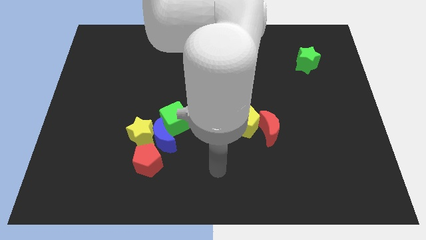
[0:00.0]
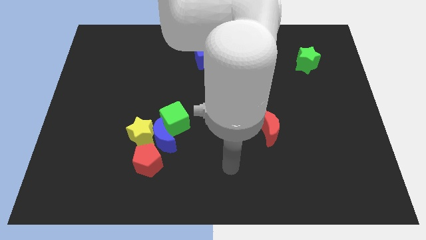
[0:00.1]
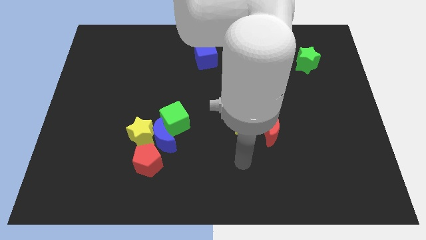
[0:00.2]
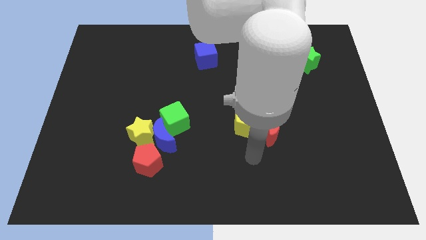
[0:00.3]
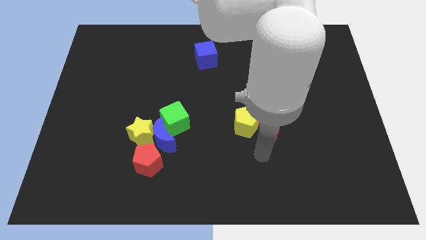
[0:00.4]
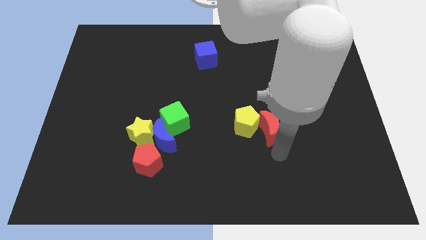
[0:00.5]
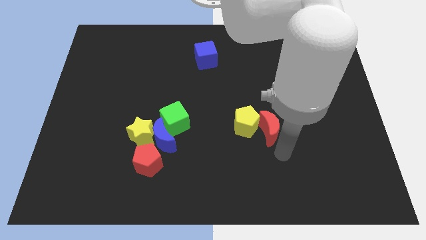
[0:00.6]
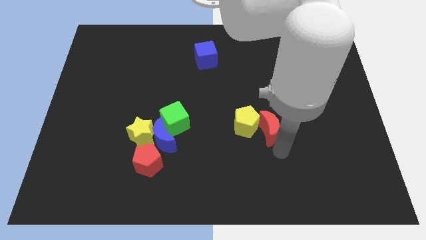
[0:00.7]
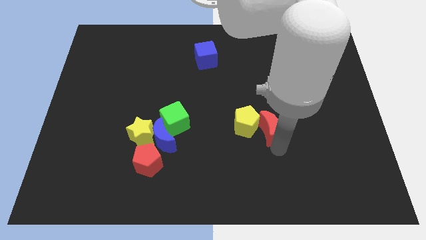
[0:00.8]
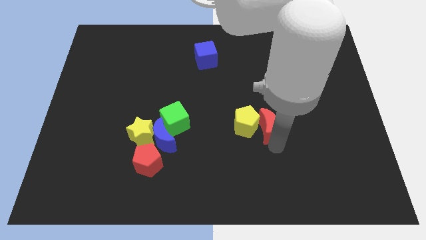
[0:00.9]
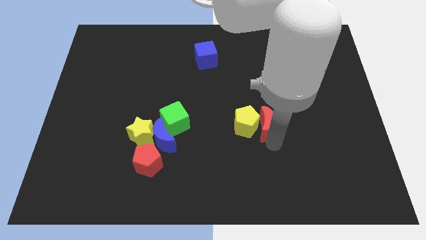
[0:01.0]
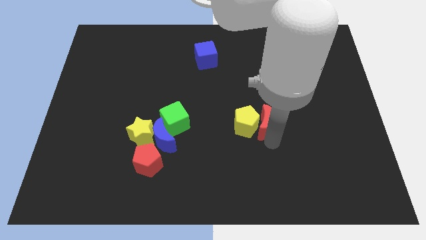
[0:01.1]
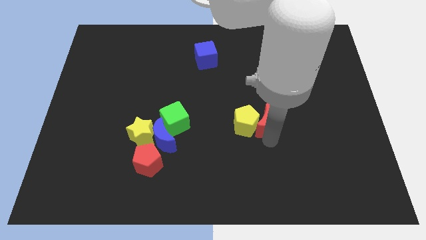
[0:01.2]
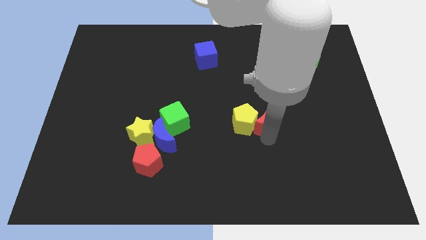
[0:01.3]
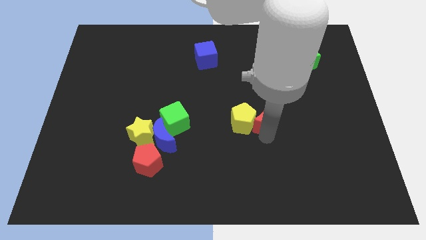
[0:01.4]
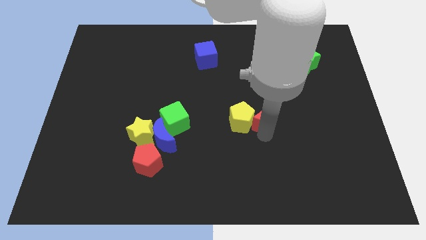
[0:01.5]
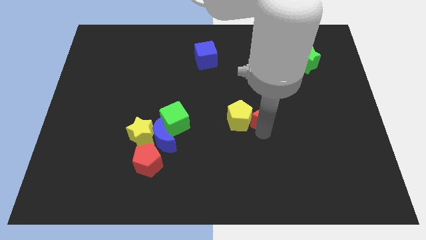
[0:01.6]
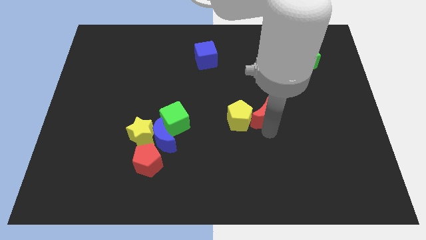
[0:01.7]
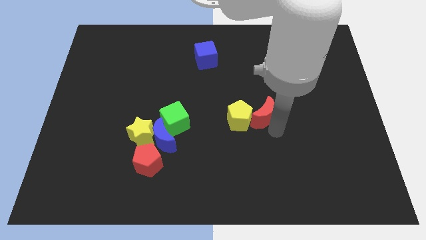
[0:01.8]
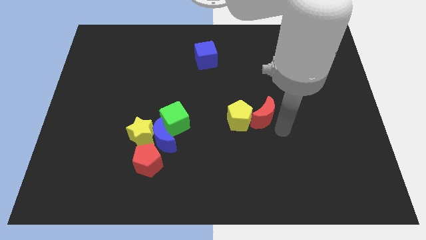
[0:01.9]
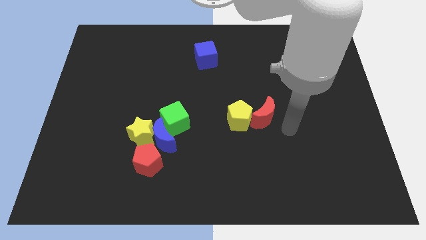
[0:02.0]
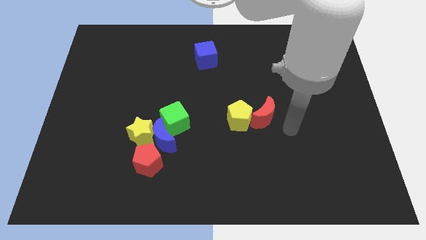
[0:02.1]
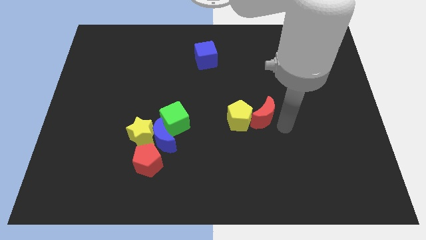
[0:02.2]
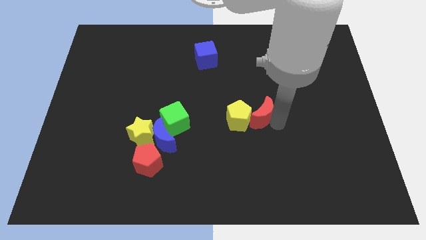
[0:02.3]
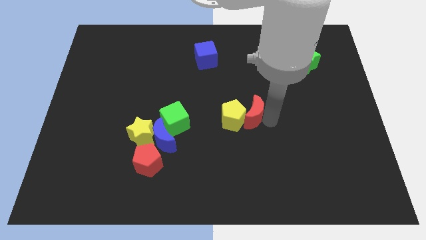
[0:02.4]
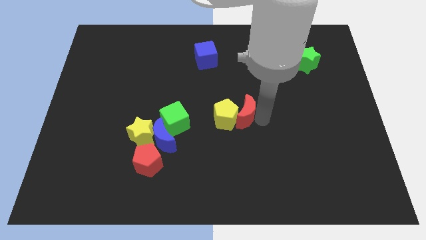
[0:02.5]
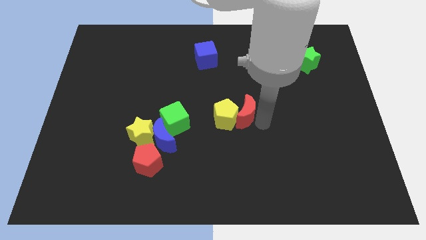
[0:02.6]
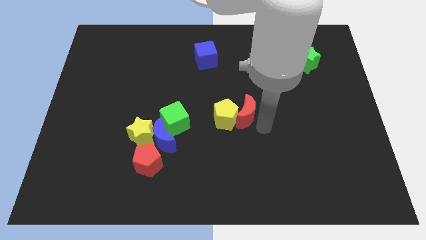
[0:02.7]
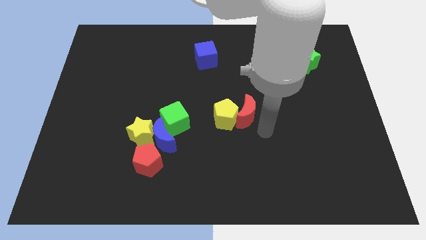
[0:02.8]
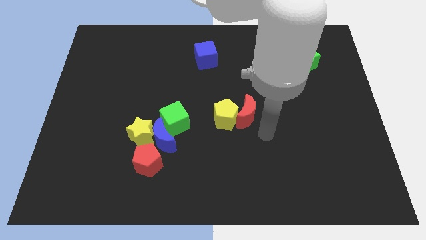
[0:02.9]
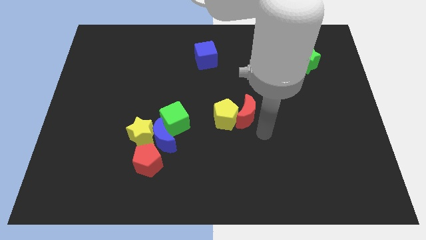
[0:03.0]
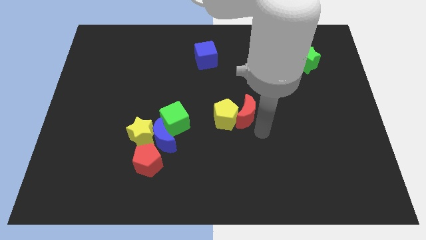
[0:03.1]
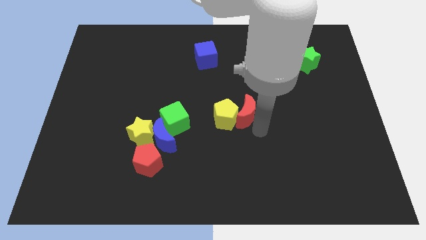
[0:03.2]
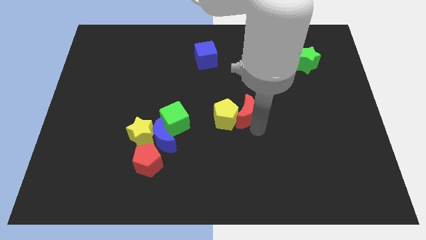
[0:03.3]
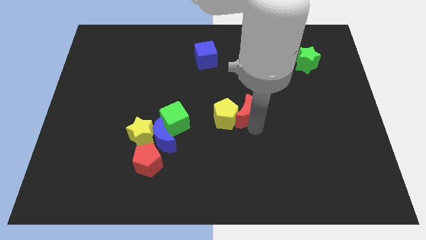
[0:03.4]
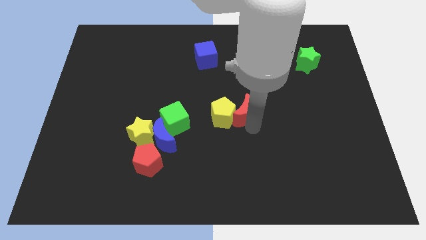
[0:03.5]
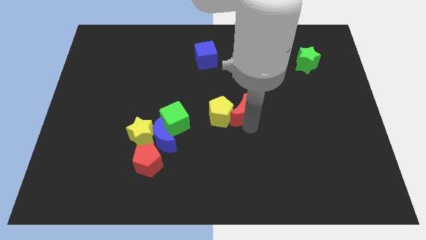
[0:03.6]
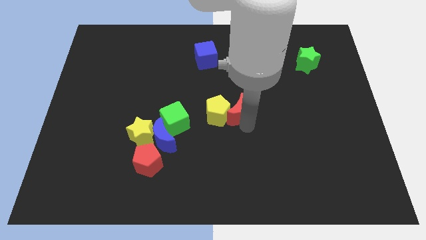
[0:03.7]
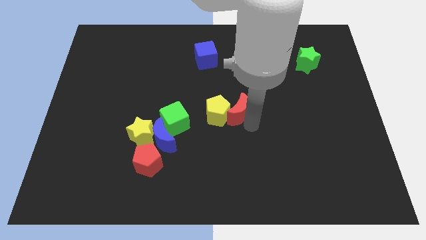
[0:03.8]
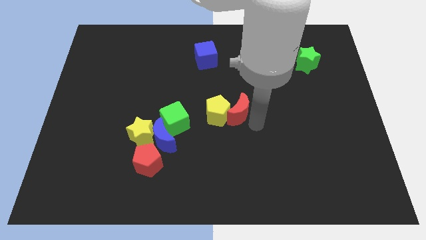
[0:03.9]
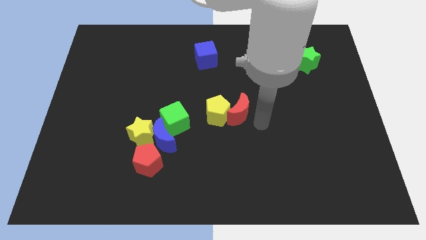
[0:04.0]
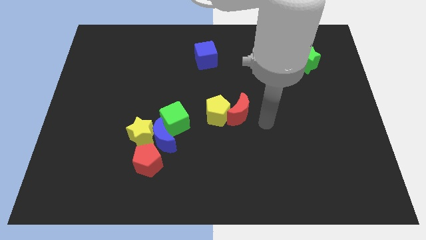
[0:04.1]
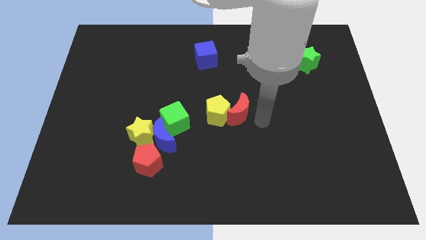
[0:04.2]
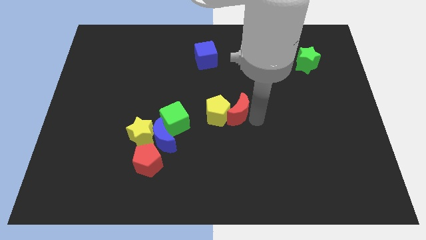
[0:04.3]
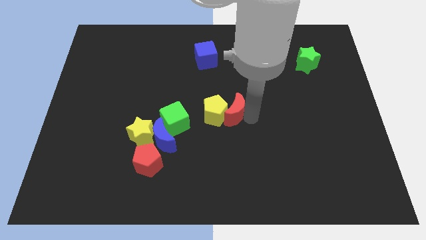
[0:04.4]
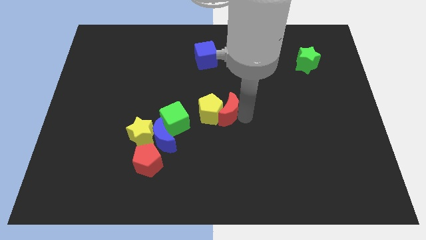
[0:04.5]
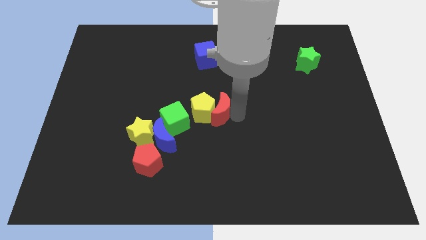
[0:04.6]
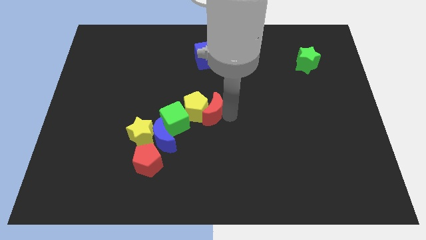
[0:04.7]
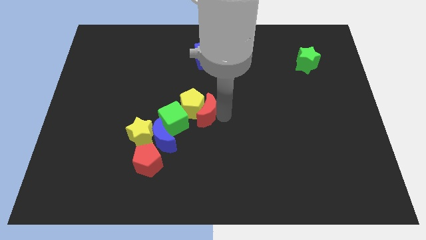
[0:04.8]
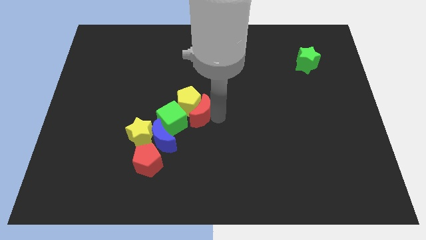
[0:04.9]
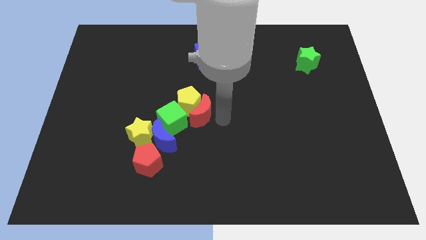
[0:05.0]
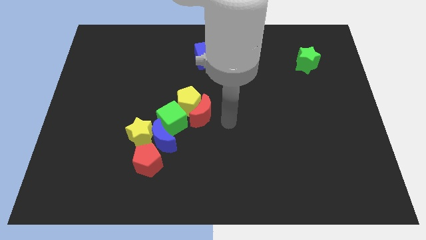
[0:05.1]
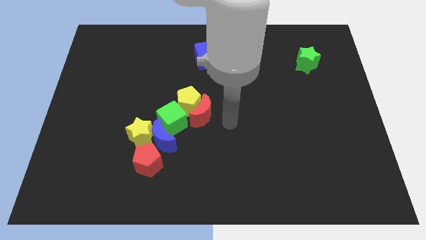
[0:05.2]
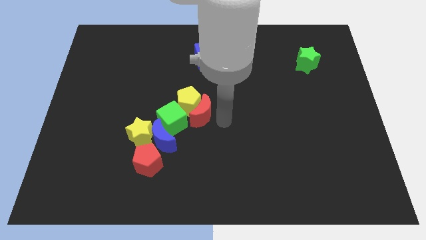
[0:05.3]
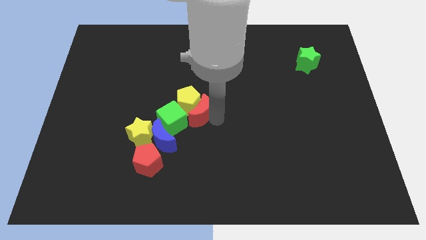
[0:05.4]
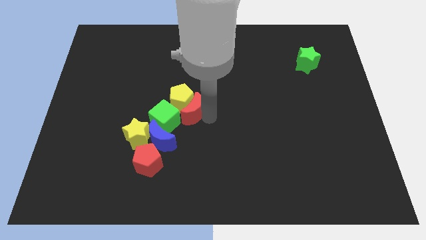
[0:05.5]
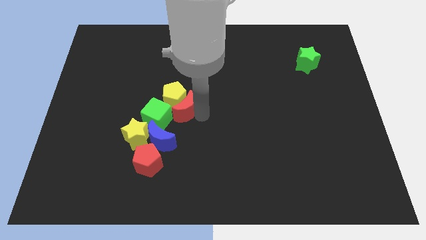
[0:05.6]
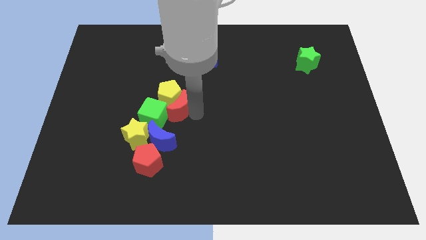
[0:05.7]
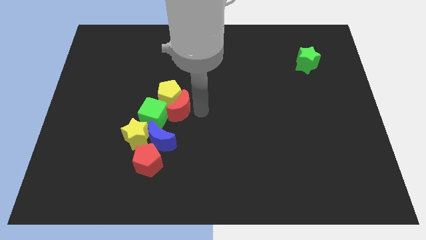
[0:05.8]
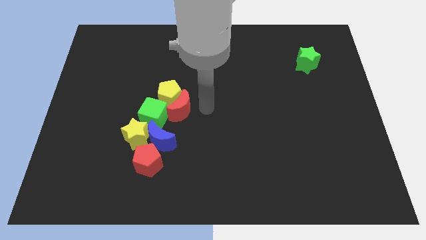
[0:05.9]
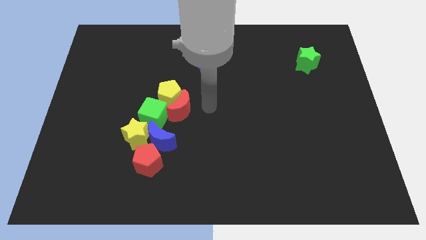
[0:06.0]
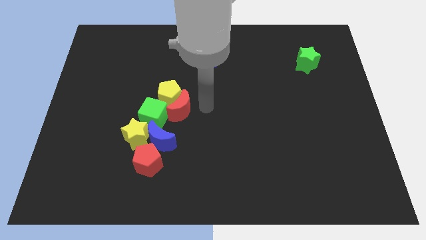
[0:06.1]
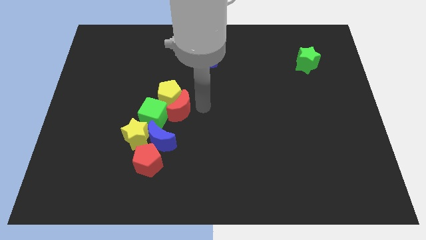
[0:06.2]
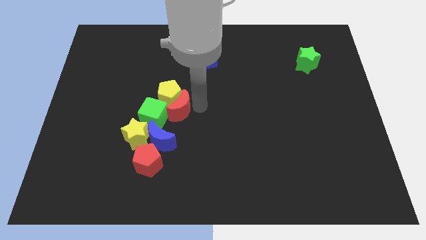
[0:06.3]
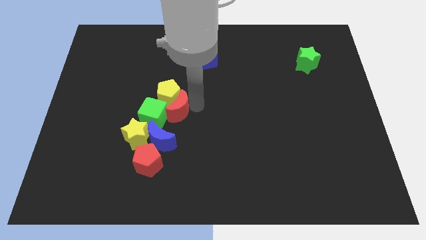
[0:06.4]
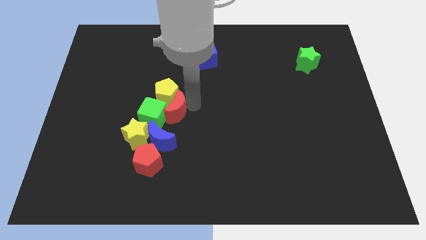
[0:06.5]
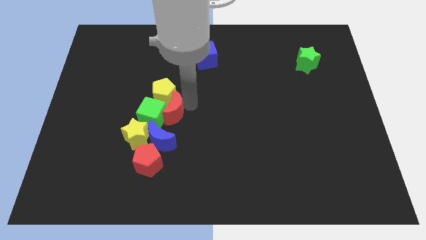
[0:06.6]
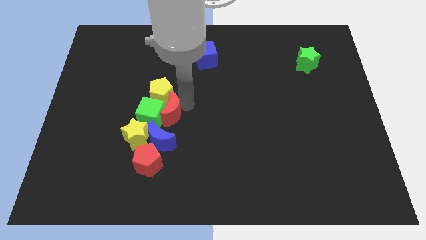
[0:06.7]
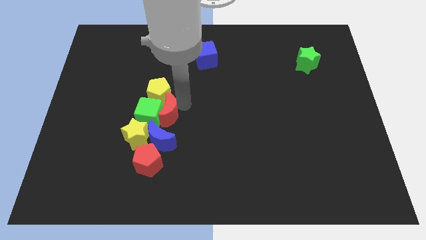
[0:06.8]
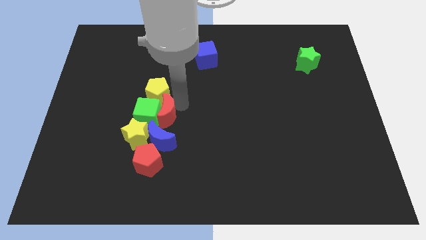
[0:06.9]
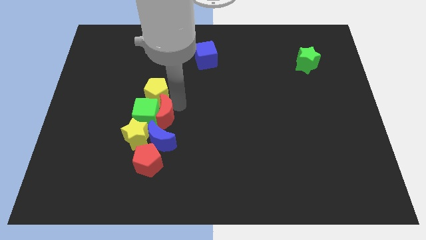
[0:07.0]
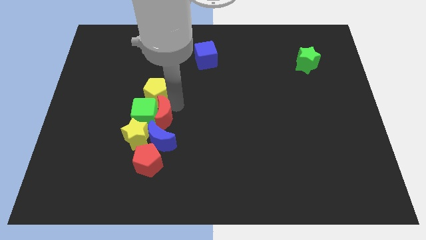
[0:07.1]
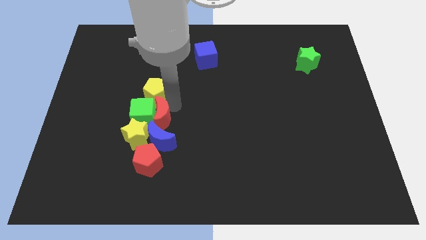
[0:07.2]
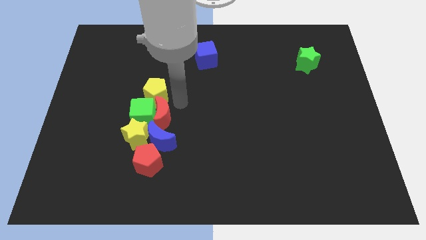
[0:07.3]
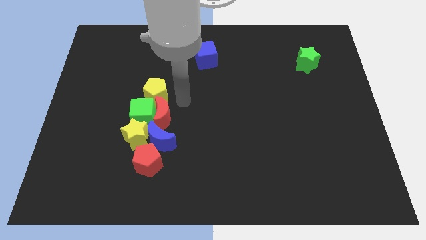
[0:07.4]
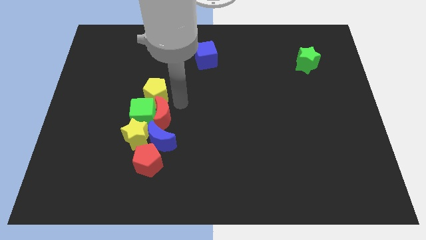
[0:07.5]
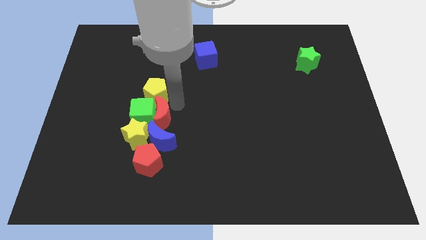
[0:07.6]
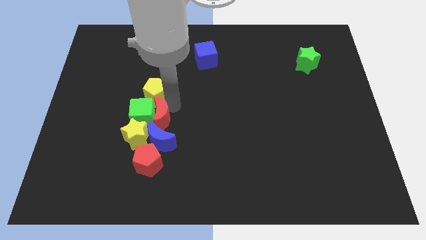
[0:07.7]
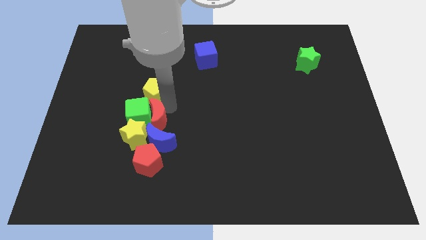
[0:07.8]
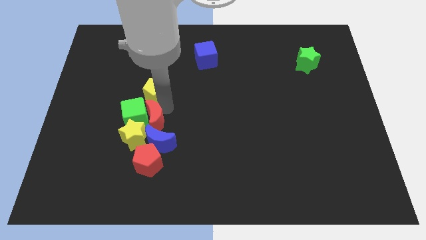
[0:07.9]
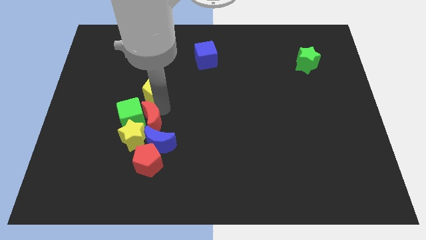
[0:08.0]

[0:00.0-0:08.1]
push the red moon next to the yellow star

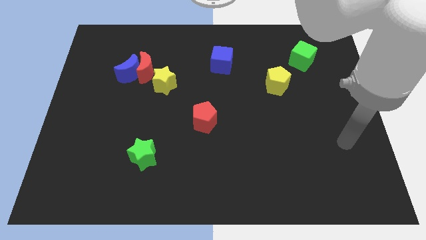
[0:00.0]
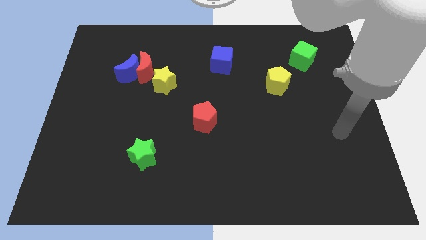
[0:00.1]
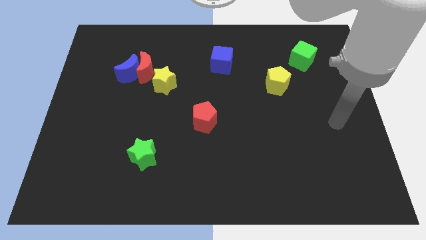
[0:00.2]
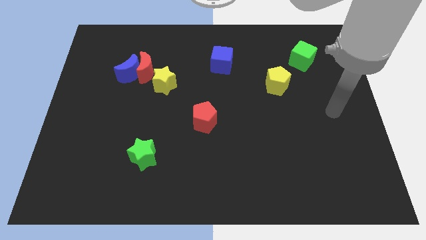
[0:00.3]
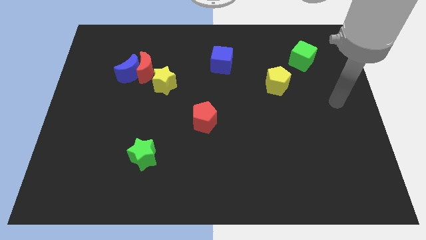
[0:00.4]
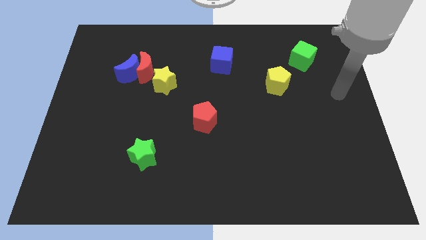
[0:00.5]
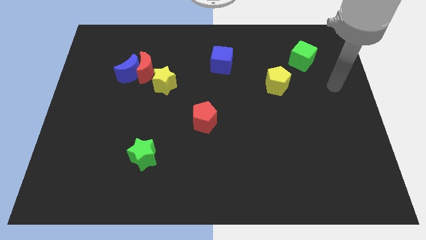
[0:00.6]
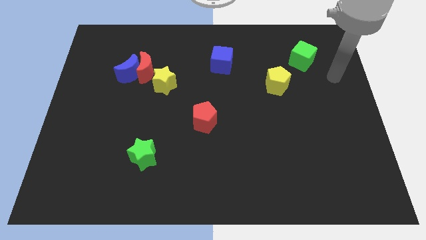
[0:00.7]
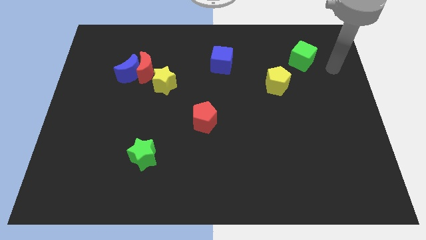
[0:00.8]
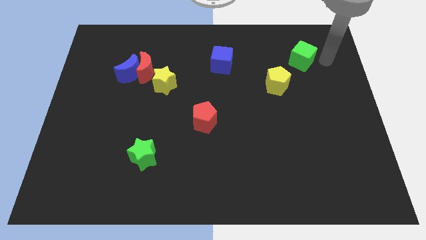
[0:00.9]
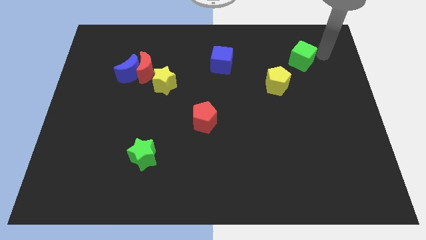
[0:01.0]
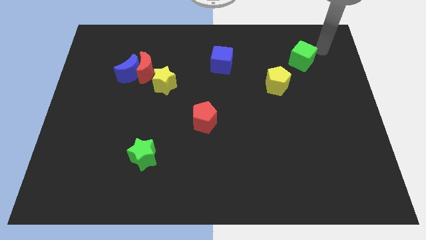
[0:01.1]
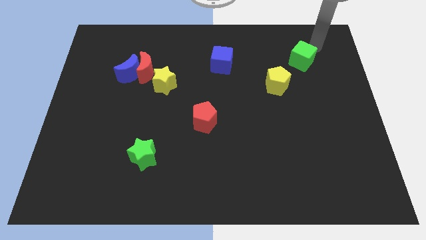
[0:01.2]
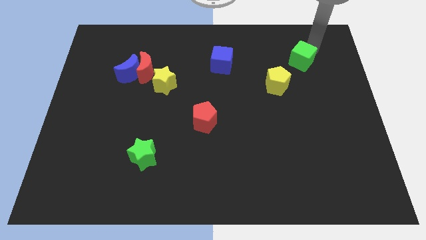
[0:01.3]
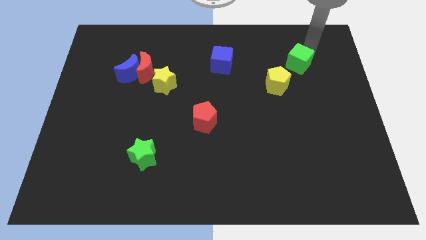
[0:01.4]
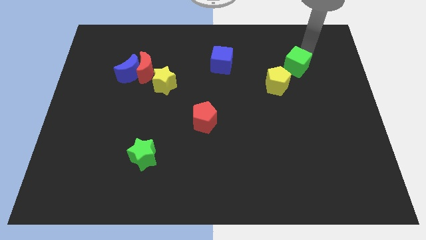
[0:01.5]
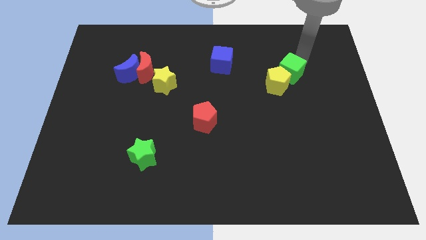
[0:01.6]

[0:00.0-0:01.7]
put the green cube to the yellow pentagon
